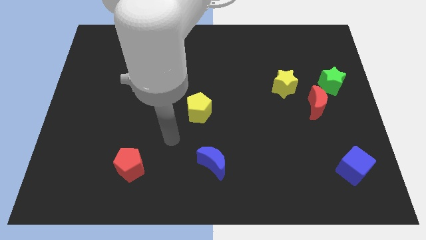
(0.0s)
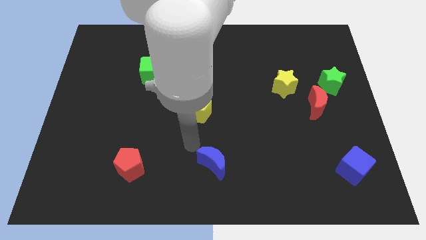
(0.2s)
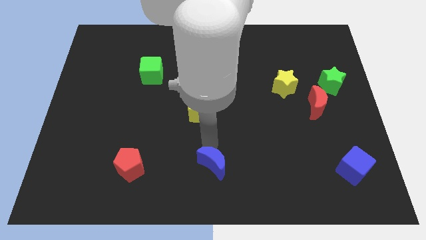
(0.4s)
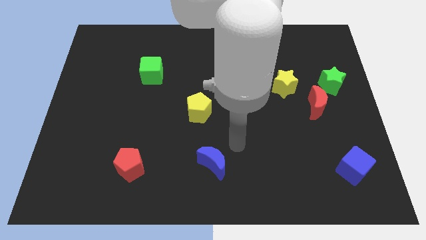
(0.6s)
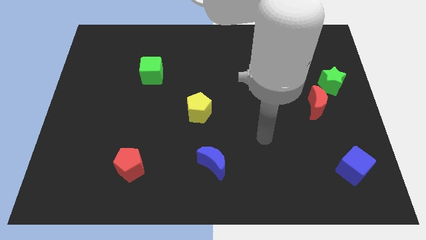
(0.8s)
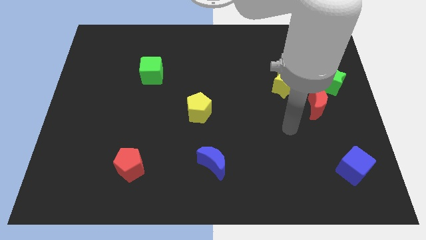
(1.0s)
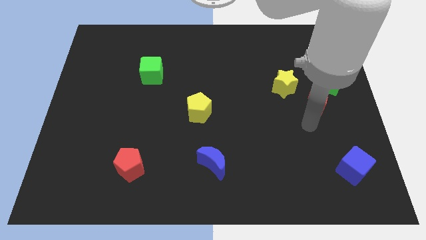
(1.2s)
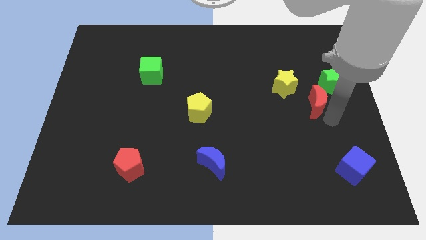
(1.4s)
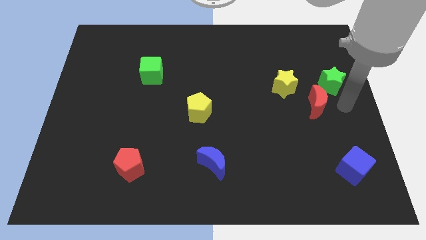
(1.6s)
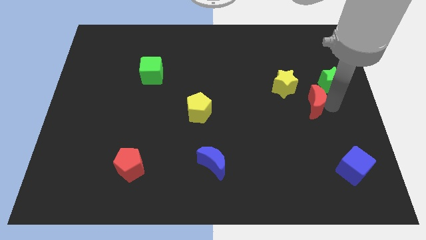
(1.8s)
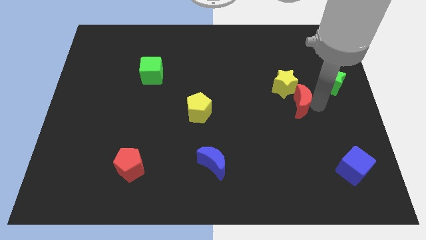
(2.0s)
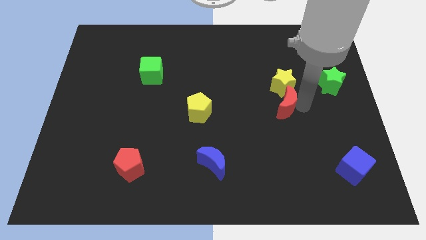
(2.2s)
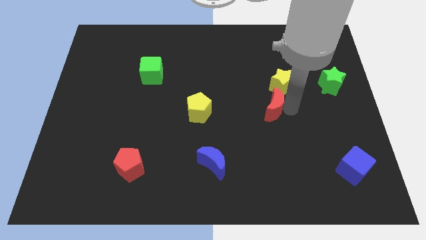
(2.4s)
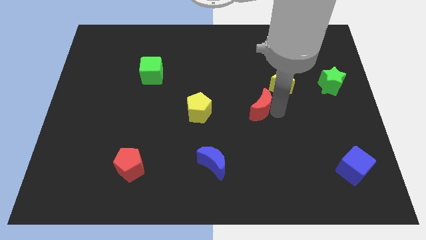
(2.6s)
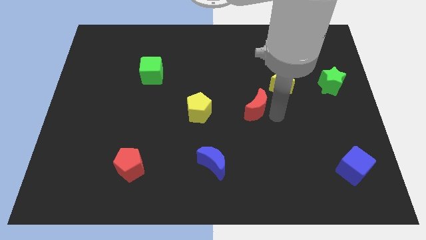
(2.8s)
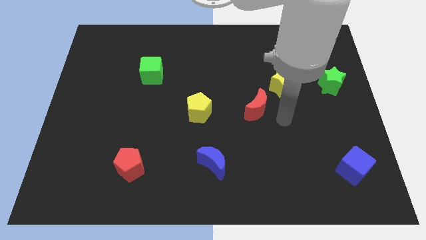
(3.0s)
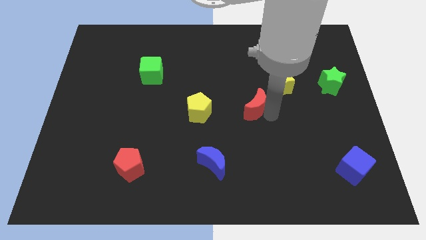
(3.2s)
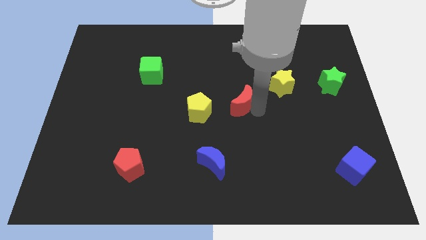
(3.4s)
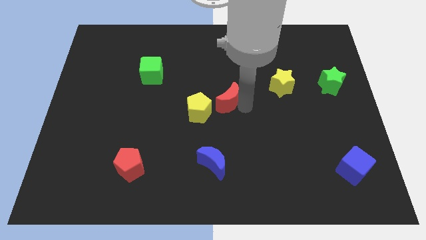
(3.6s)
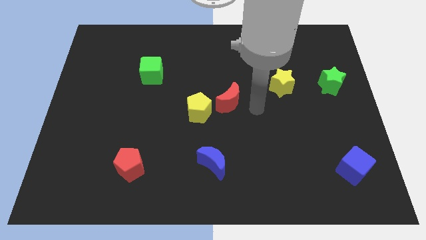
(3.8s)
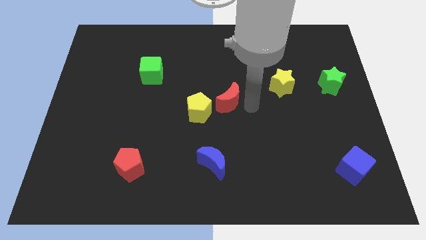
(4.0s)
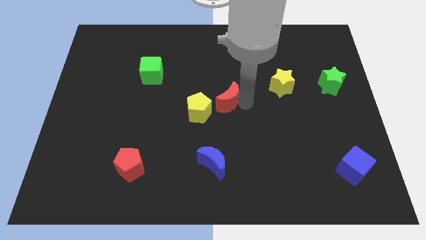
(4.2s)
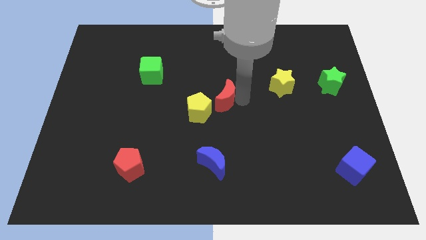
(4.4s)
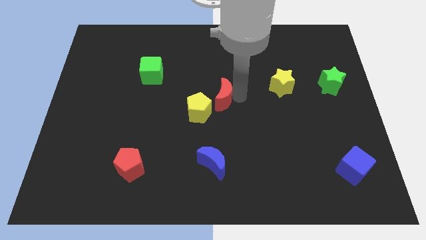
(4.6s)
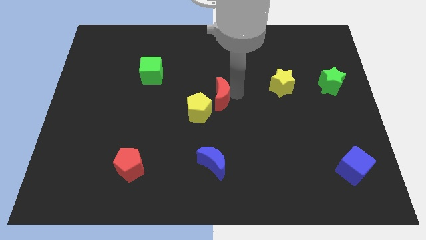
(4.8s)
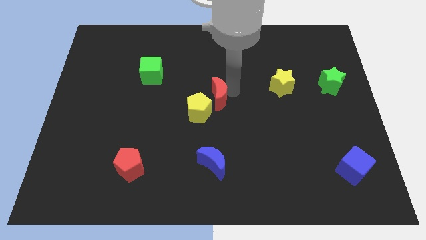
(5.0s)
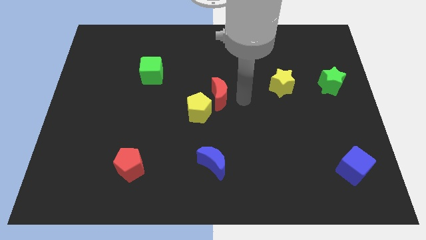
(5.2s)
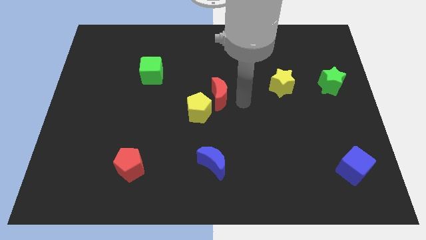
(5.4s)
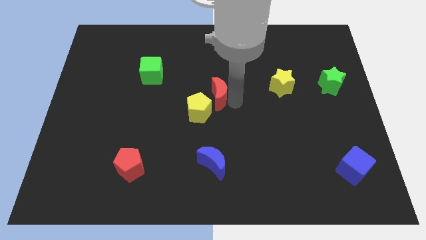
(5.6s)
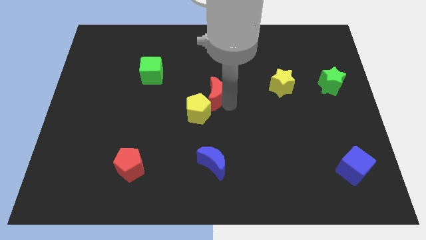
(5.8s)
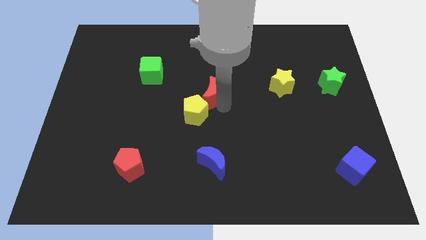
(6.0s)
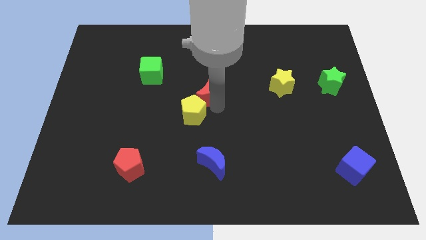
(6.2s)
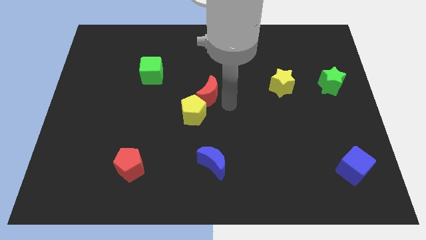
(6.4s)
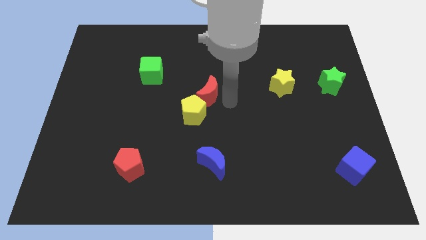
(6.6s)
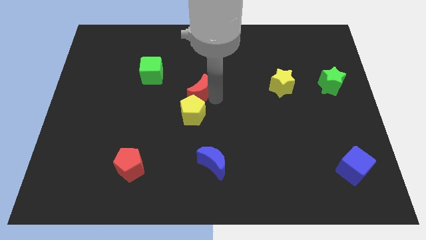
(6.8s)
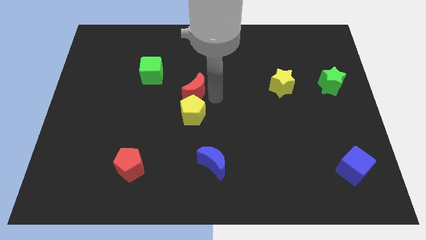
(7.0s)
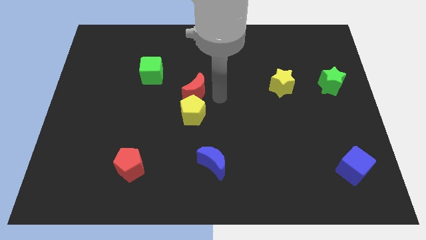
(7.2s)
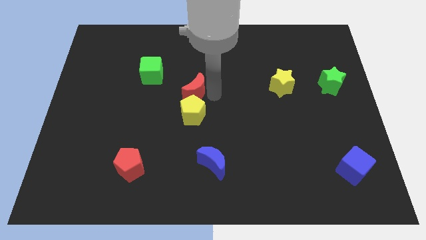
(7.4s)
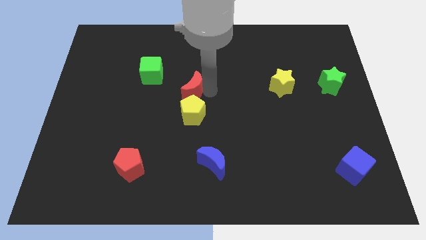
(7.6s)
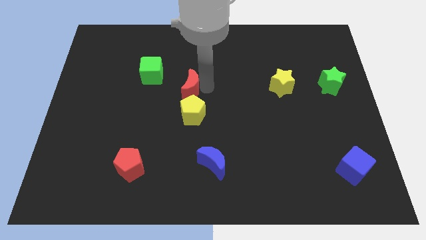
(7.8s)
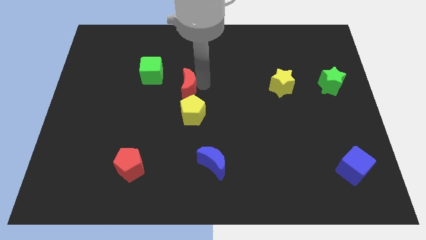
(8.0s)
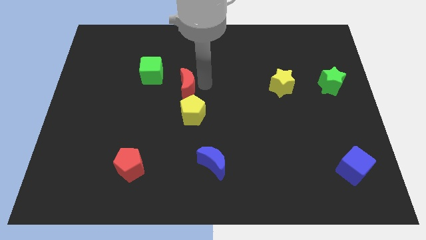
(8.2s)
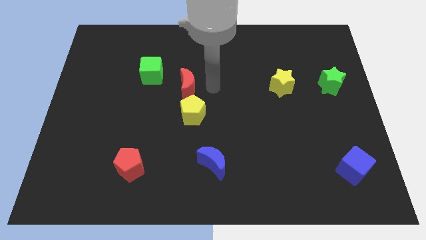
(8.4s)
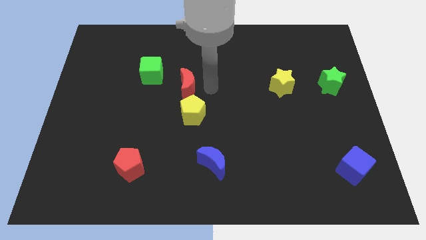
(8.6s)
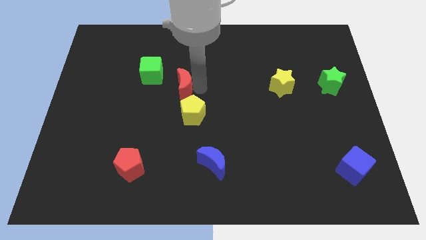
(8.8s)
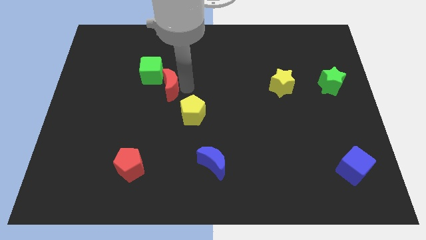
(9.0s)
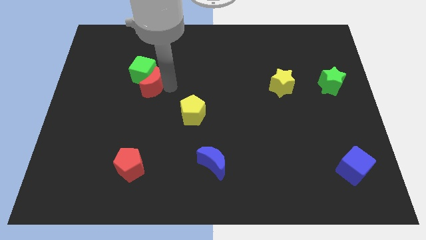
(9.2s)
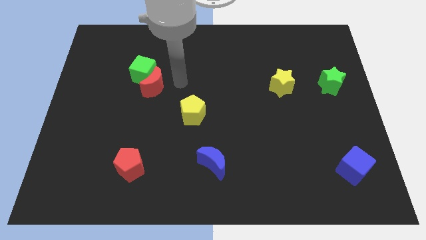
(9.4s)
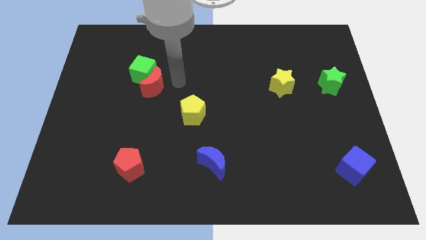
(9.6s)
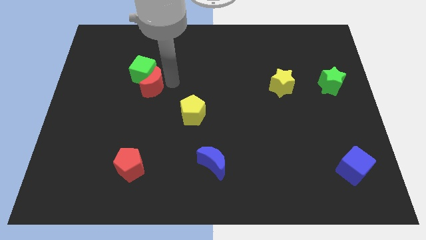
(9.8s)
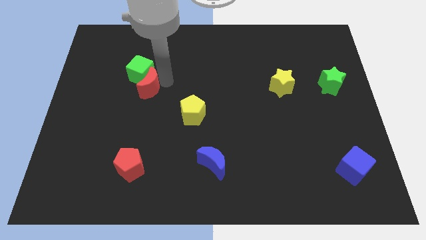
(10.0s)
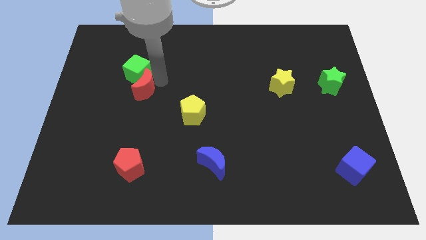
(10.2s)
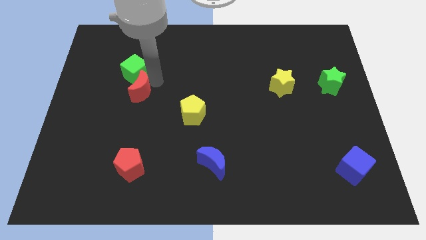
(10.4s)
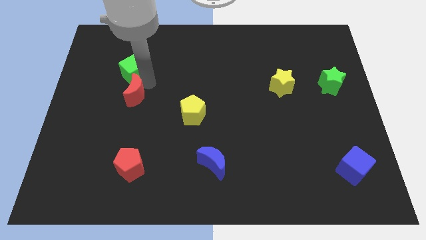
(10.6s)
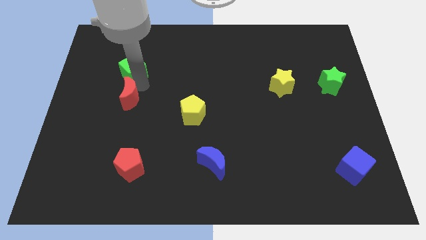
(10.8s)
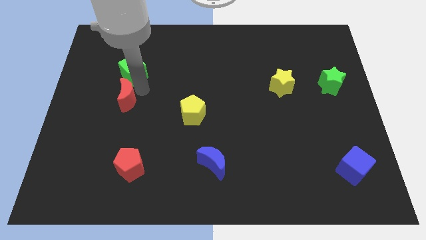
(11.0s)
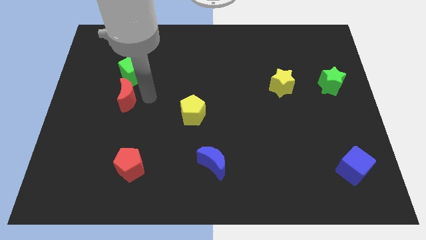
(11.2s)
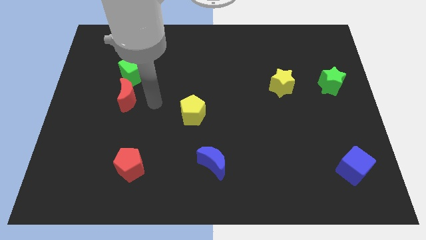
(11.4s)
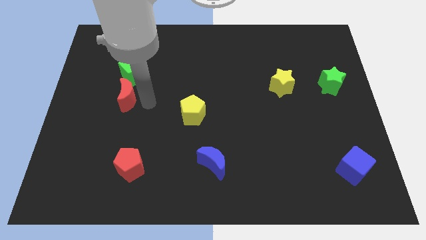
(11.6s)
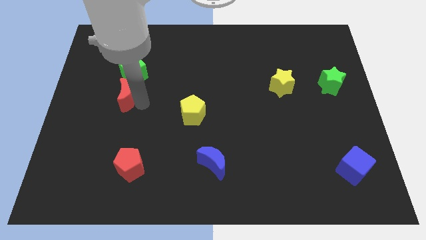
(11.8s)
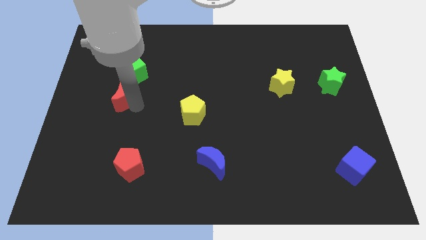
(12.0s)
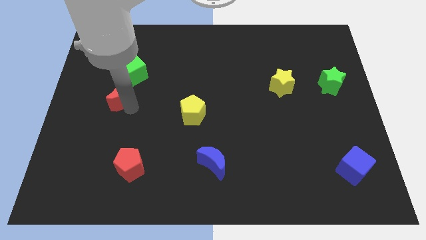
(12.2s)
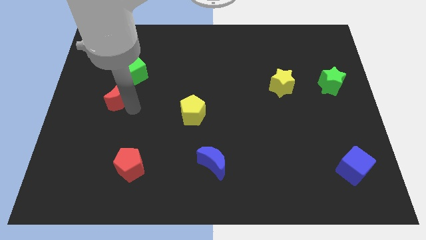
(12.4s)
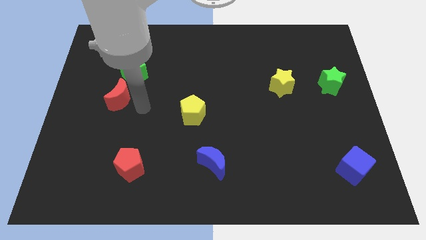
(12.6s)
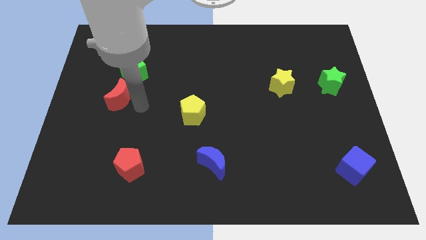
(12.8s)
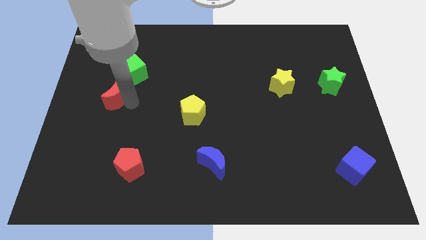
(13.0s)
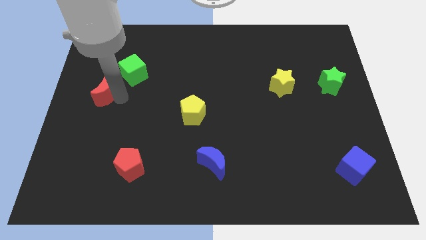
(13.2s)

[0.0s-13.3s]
push the red moon to the left side of the board
